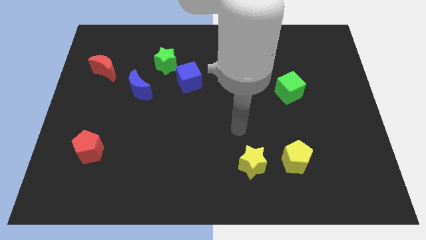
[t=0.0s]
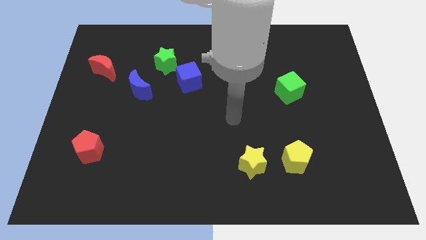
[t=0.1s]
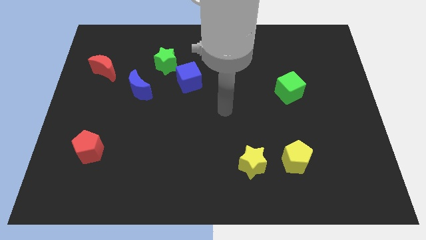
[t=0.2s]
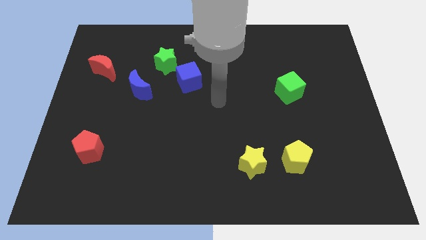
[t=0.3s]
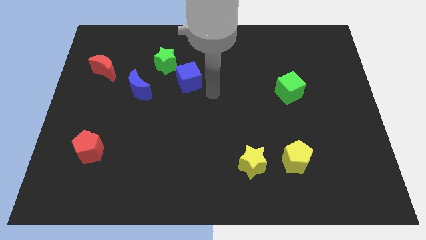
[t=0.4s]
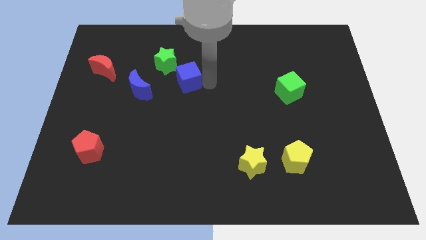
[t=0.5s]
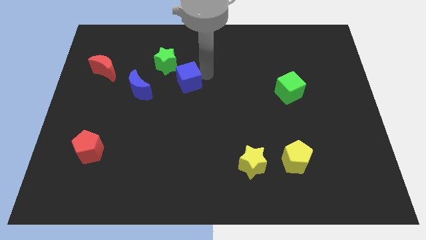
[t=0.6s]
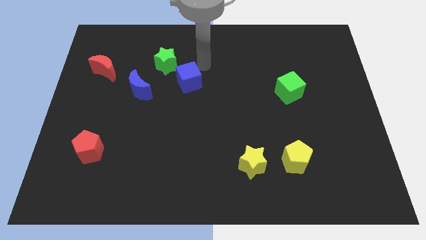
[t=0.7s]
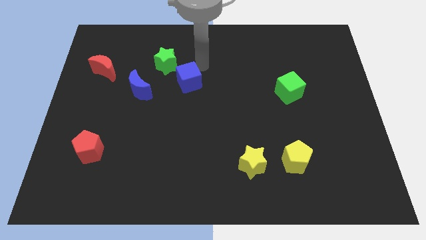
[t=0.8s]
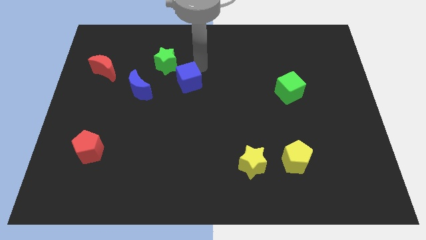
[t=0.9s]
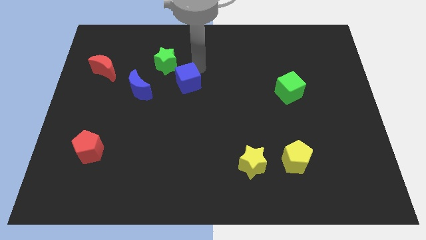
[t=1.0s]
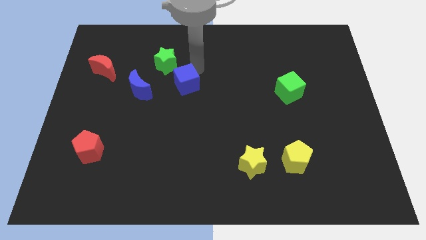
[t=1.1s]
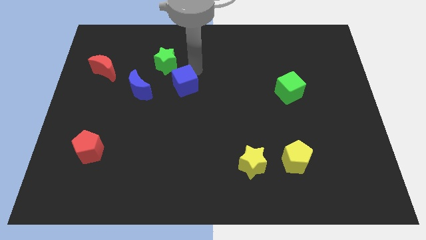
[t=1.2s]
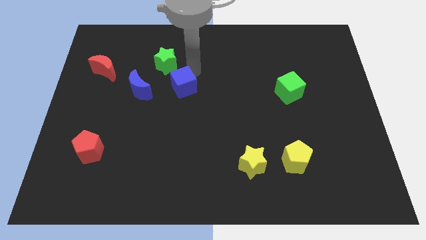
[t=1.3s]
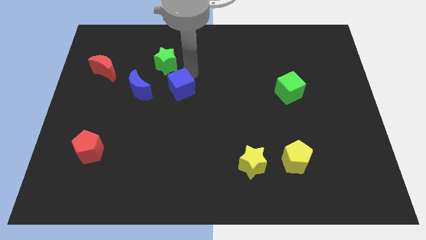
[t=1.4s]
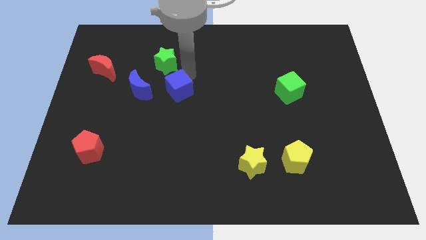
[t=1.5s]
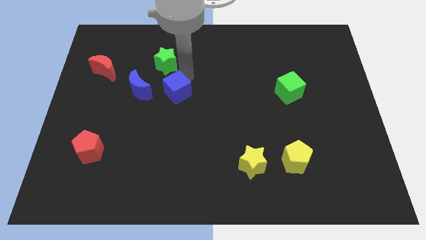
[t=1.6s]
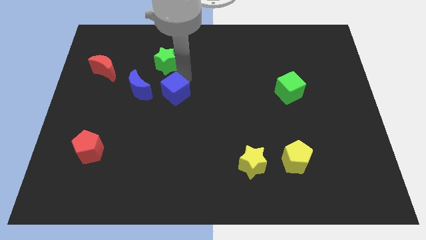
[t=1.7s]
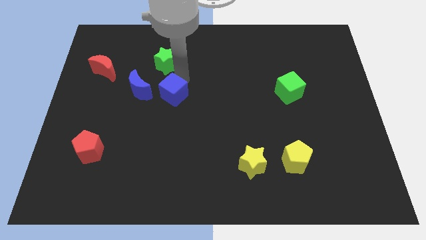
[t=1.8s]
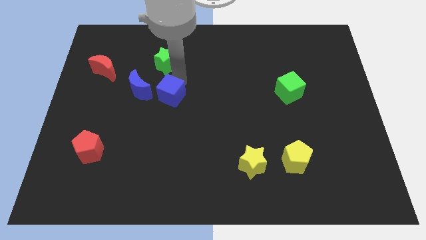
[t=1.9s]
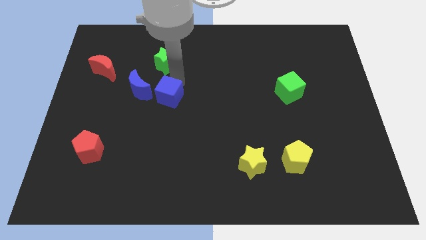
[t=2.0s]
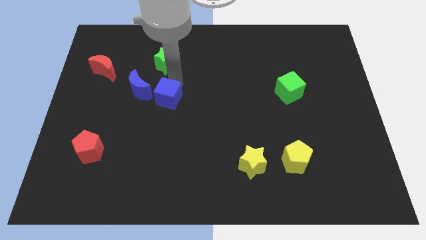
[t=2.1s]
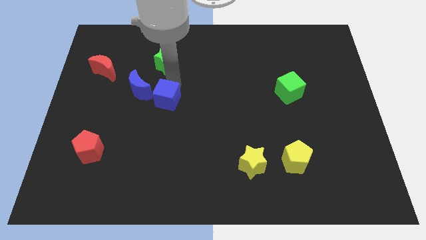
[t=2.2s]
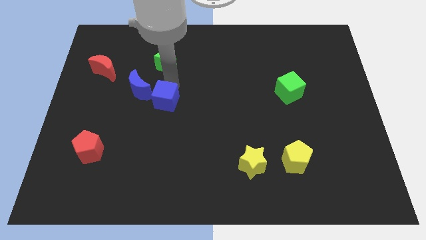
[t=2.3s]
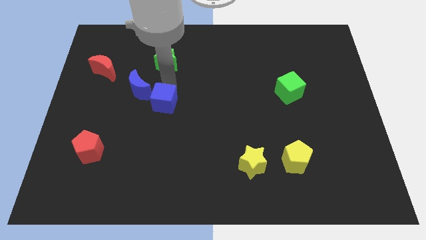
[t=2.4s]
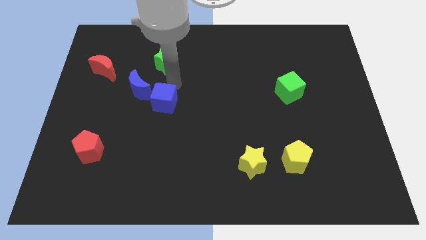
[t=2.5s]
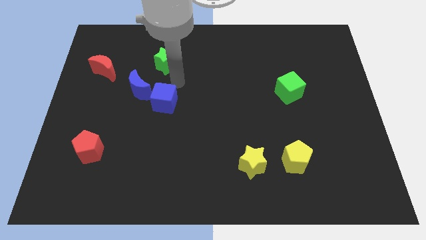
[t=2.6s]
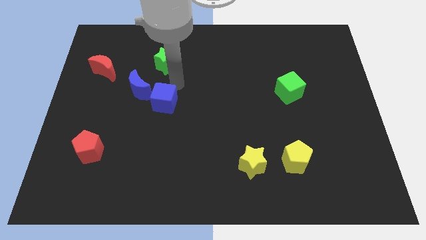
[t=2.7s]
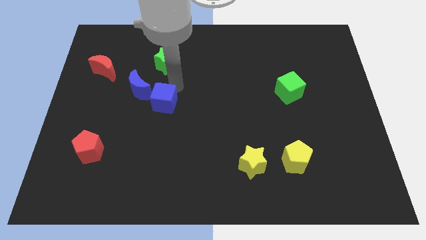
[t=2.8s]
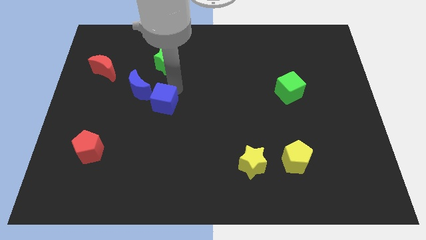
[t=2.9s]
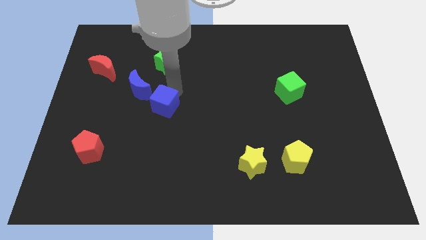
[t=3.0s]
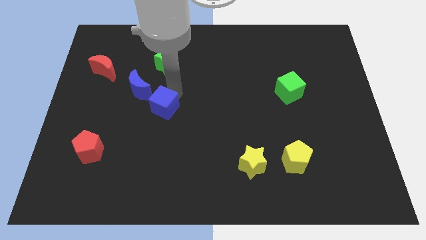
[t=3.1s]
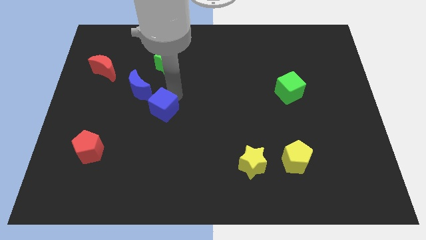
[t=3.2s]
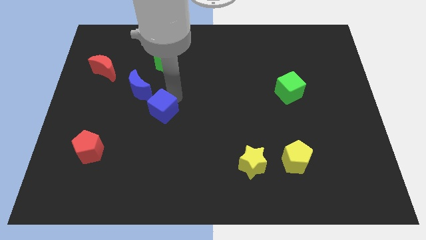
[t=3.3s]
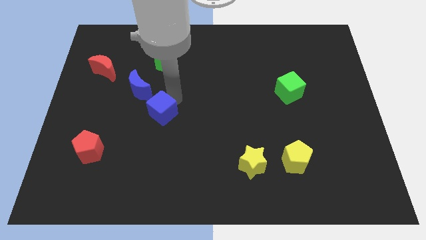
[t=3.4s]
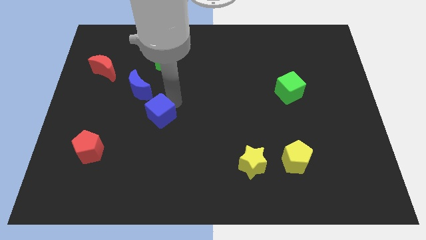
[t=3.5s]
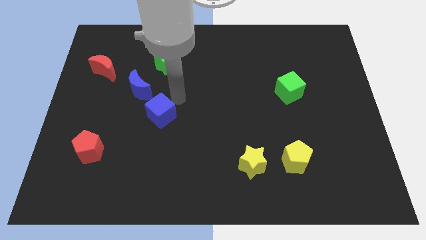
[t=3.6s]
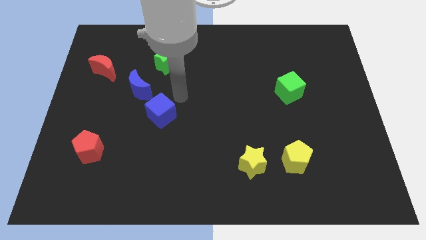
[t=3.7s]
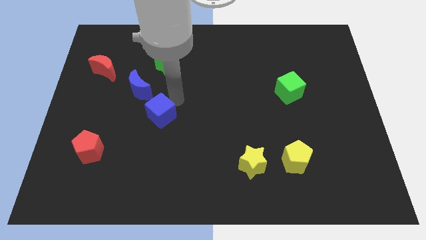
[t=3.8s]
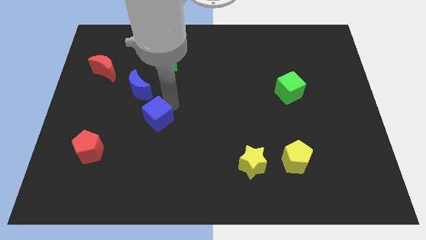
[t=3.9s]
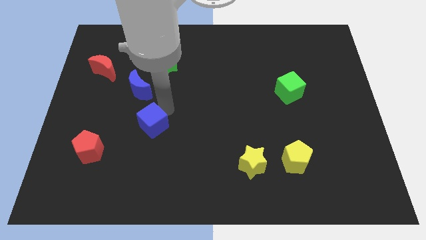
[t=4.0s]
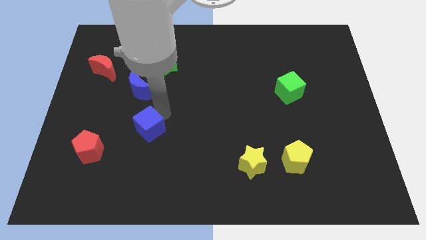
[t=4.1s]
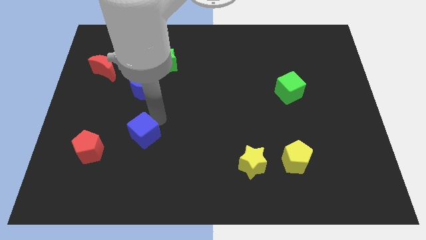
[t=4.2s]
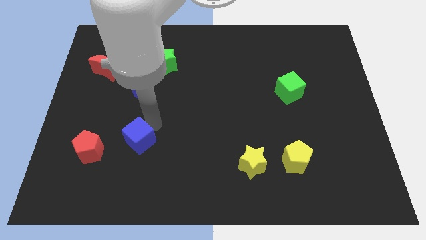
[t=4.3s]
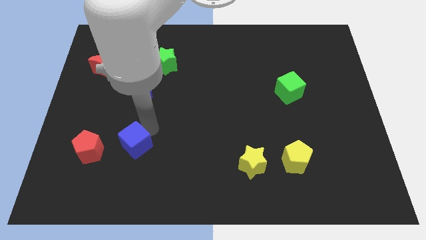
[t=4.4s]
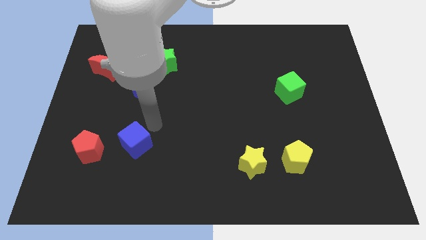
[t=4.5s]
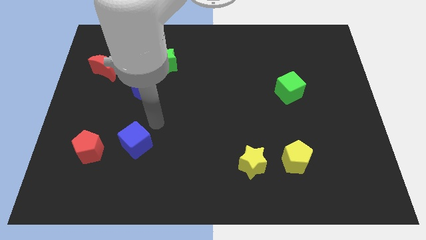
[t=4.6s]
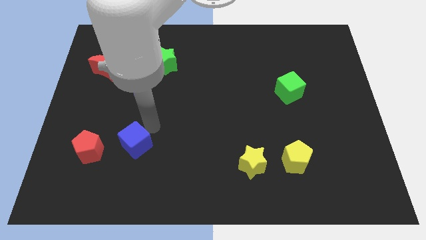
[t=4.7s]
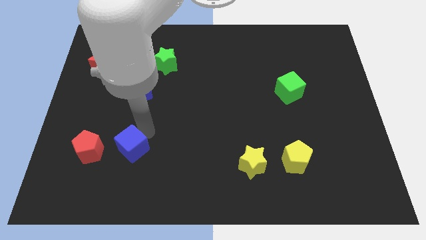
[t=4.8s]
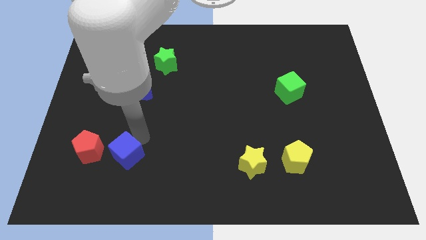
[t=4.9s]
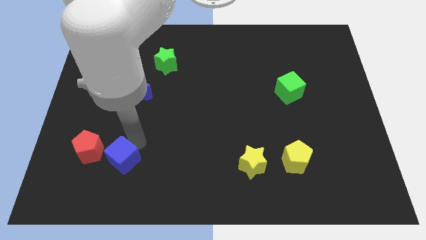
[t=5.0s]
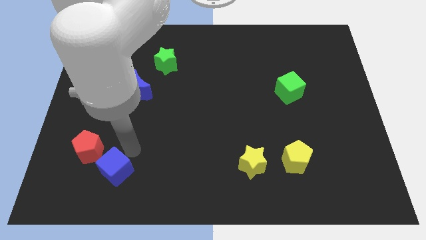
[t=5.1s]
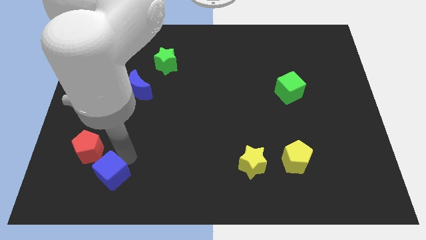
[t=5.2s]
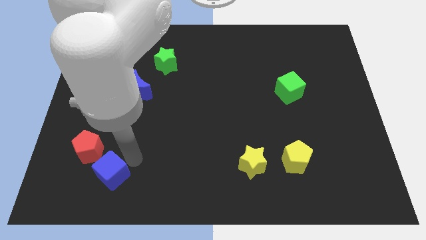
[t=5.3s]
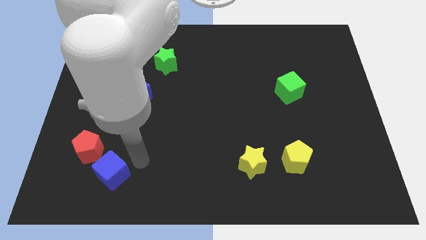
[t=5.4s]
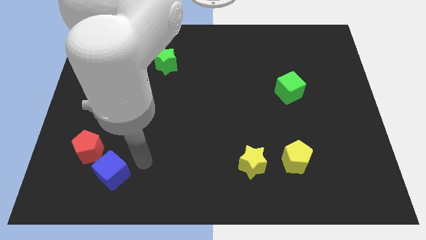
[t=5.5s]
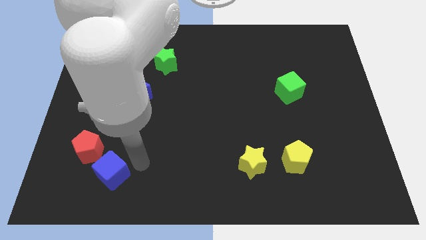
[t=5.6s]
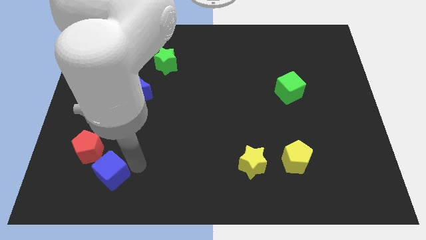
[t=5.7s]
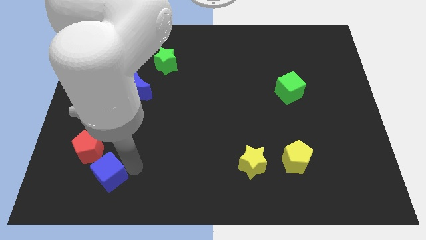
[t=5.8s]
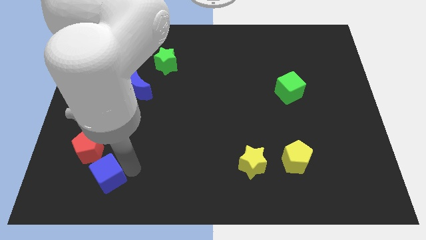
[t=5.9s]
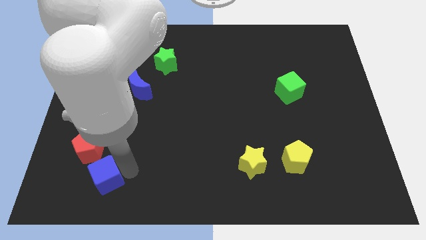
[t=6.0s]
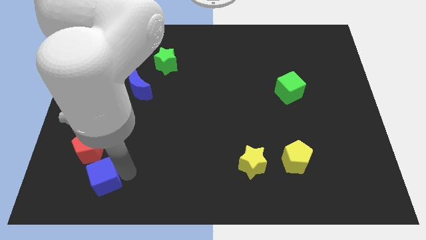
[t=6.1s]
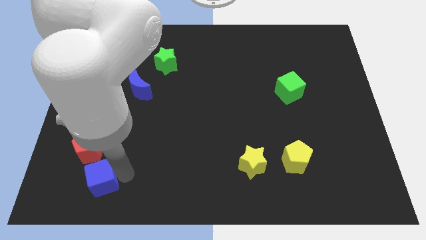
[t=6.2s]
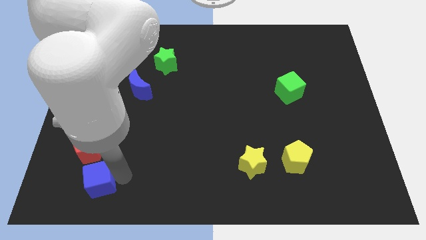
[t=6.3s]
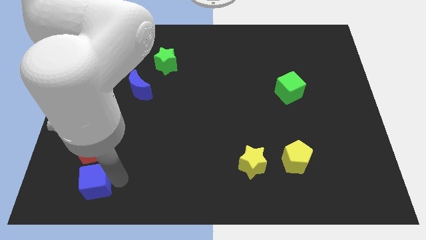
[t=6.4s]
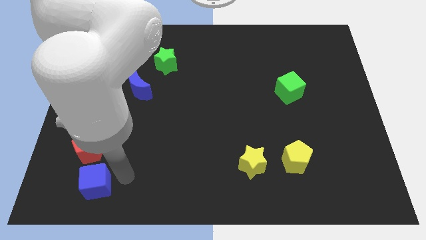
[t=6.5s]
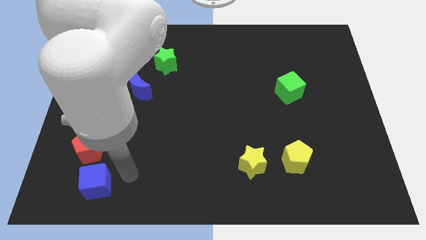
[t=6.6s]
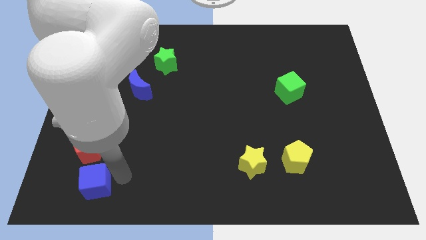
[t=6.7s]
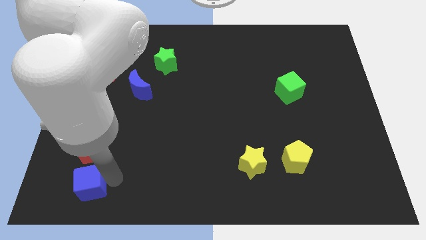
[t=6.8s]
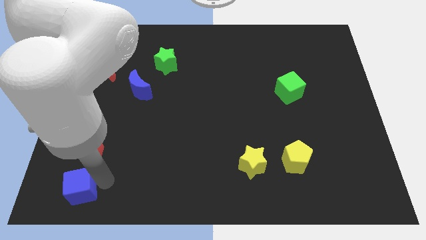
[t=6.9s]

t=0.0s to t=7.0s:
push the blue cube to the bottom left corner
